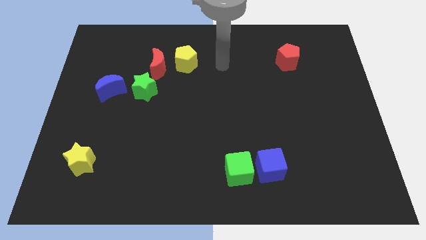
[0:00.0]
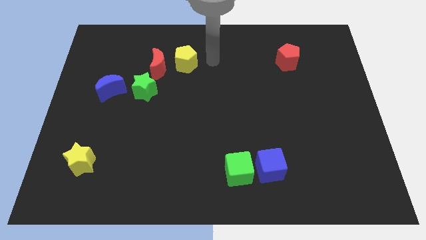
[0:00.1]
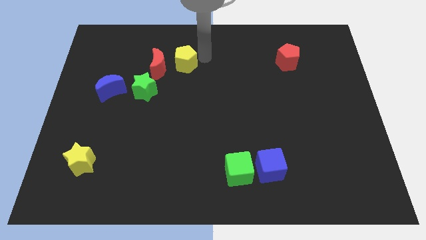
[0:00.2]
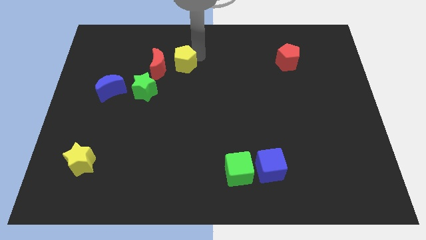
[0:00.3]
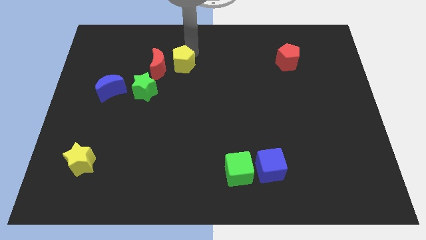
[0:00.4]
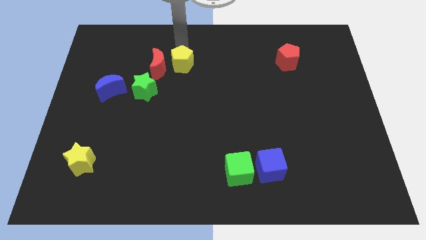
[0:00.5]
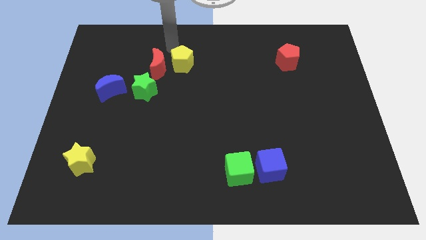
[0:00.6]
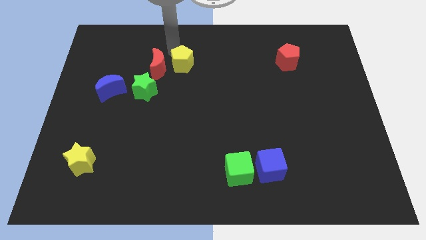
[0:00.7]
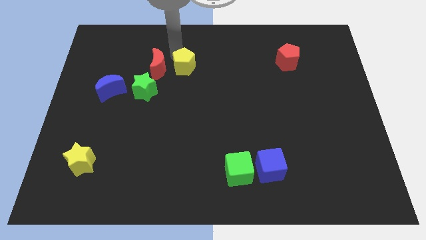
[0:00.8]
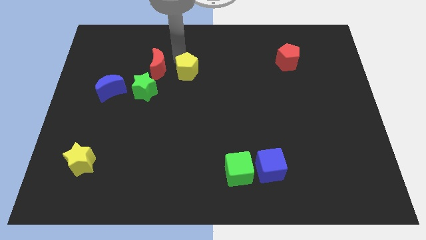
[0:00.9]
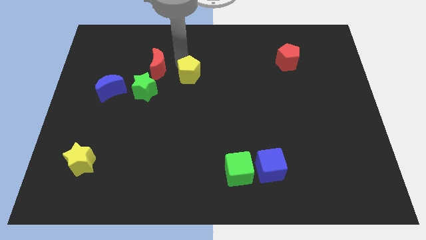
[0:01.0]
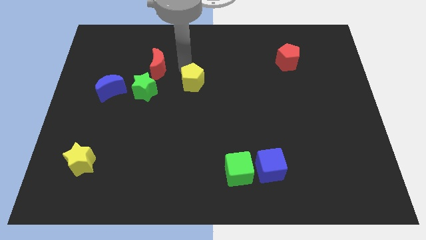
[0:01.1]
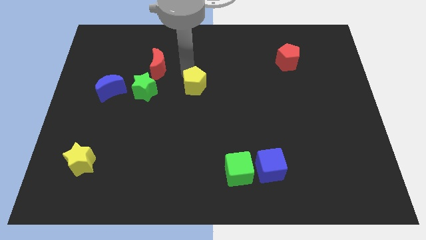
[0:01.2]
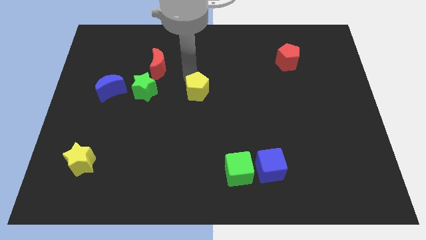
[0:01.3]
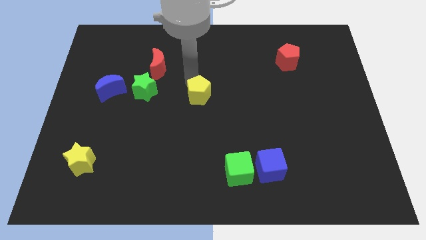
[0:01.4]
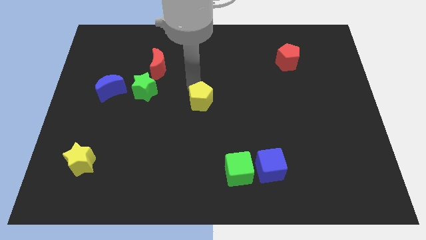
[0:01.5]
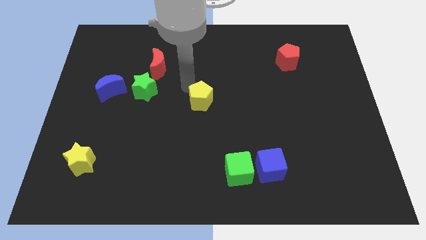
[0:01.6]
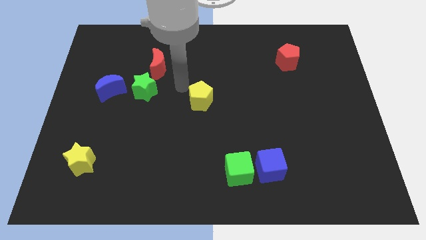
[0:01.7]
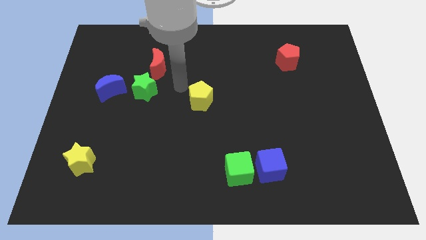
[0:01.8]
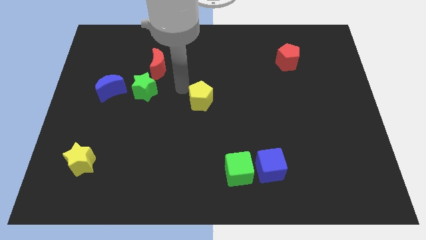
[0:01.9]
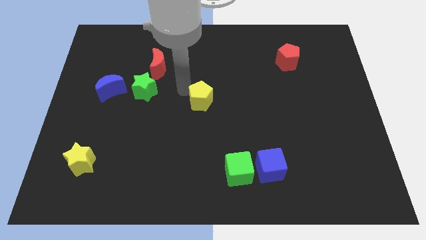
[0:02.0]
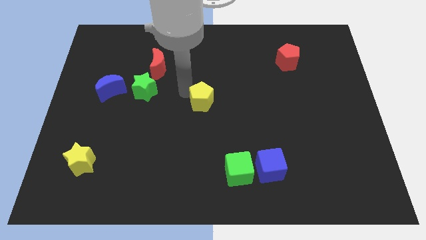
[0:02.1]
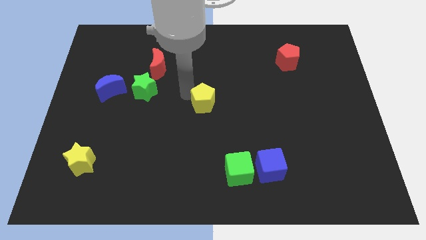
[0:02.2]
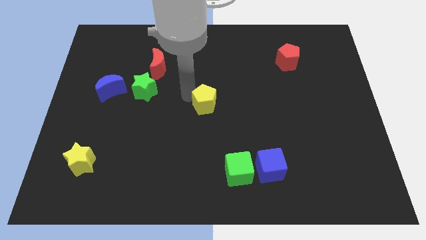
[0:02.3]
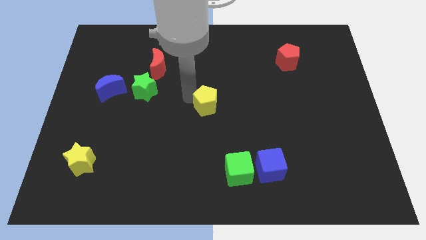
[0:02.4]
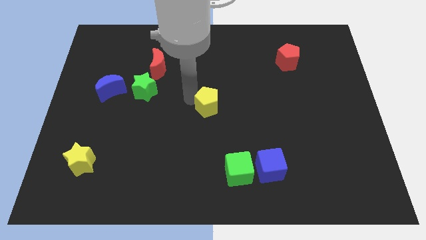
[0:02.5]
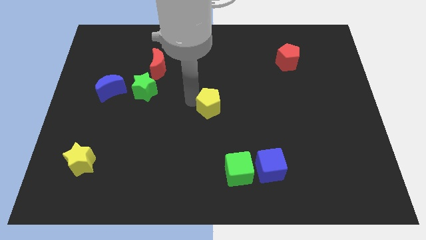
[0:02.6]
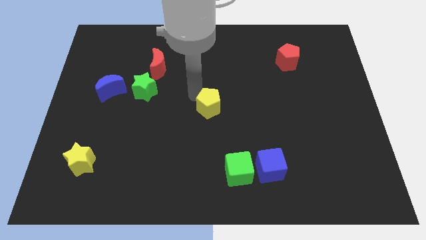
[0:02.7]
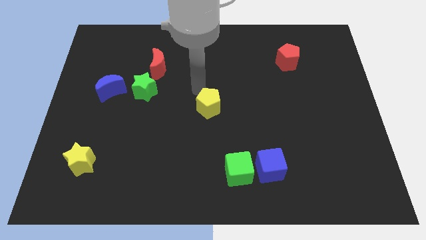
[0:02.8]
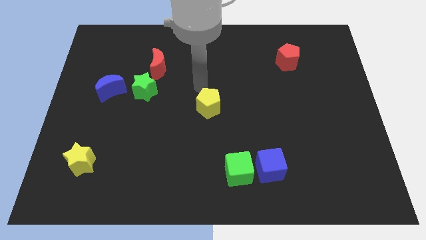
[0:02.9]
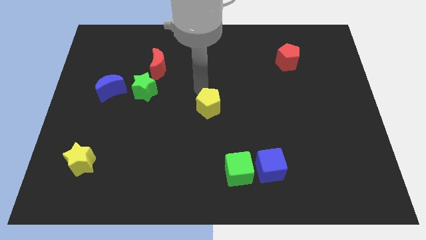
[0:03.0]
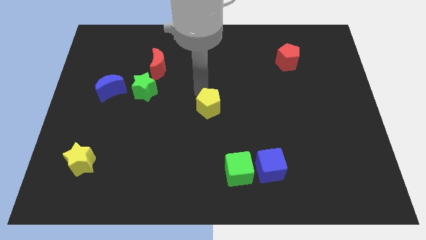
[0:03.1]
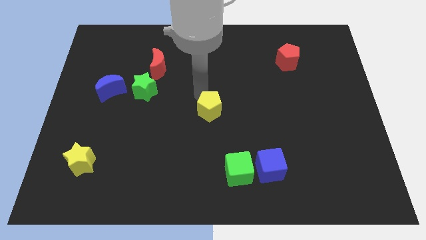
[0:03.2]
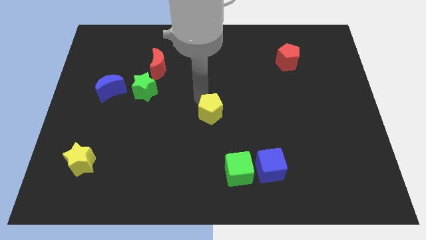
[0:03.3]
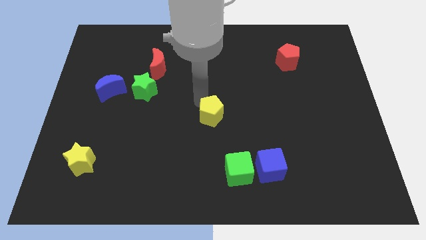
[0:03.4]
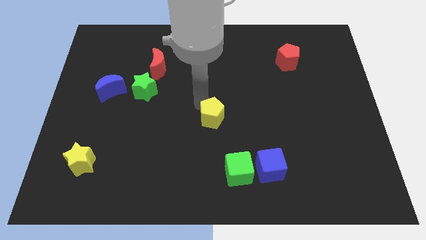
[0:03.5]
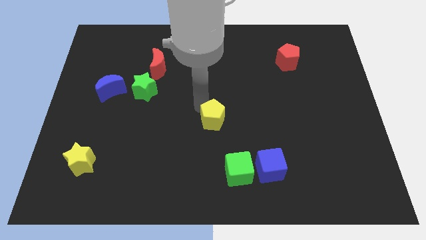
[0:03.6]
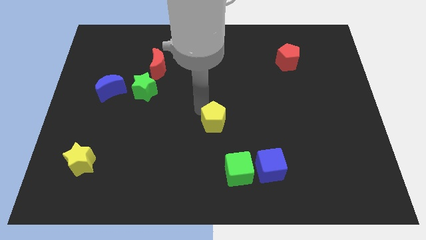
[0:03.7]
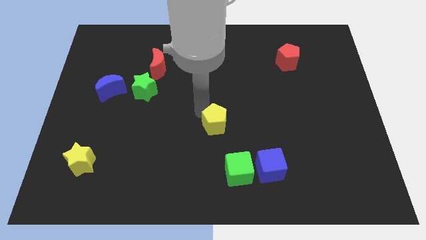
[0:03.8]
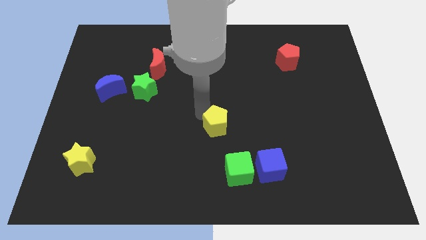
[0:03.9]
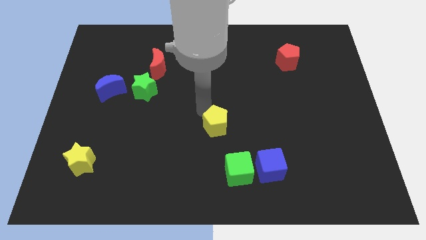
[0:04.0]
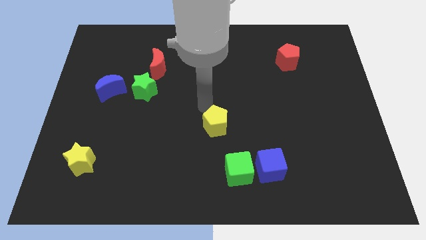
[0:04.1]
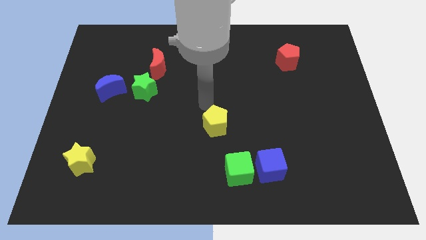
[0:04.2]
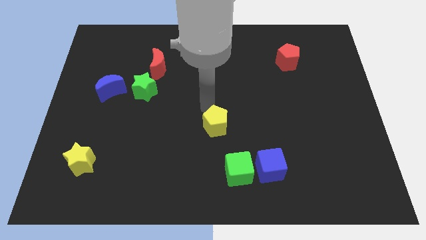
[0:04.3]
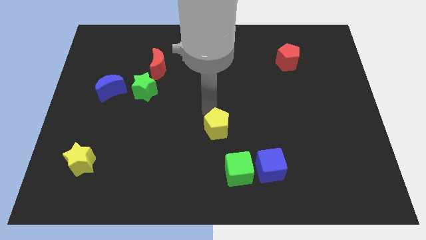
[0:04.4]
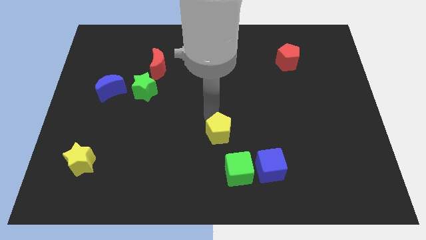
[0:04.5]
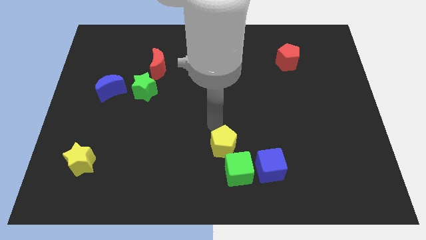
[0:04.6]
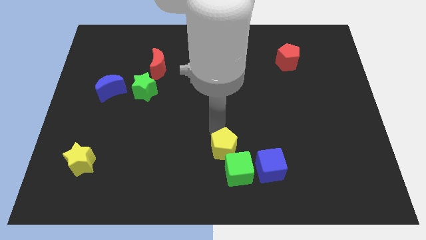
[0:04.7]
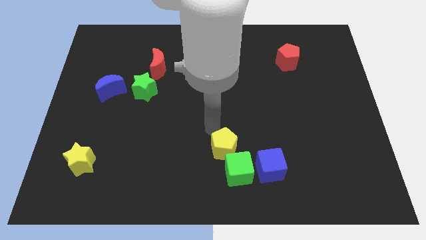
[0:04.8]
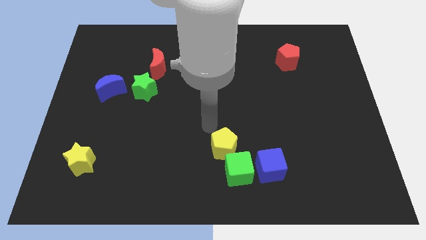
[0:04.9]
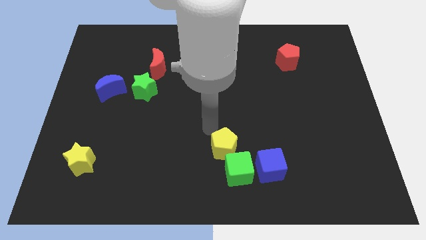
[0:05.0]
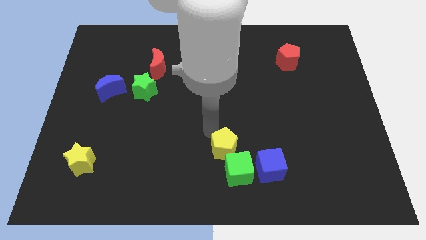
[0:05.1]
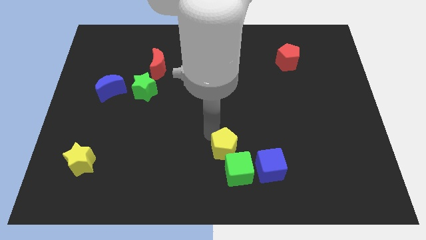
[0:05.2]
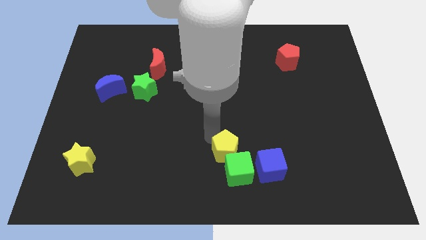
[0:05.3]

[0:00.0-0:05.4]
slide the yellow pentagon close to the green cube

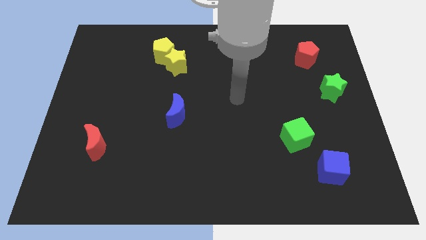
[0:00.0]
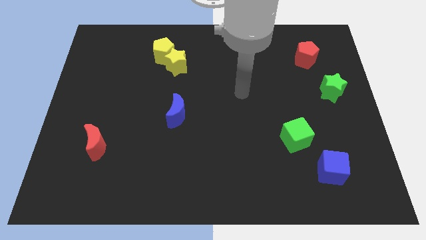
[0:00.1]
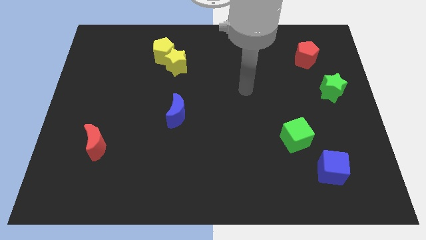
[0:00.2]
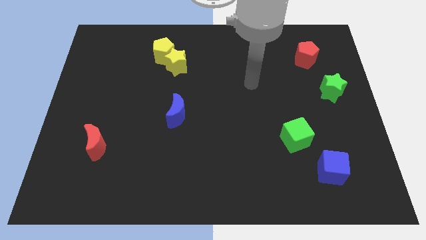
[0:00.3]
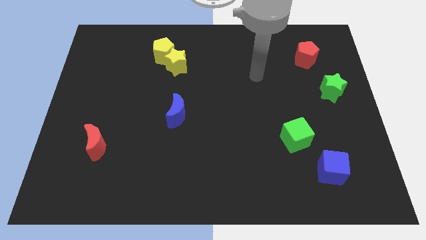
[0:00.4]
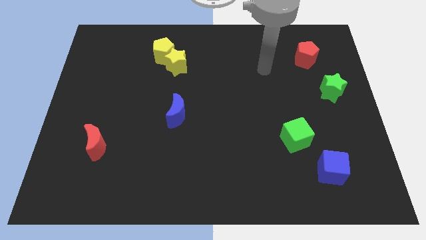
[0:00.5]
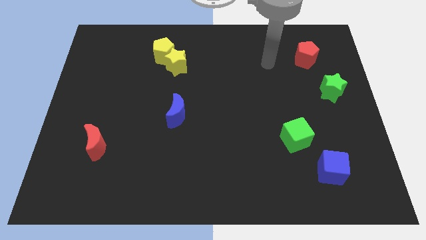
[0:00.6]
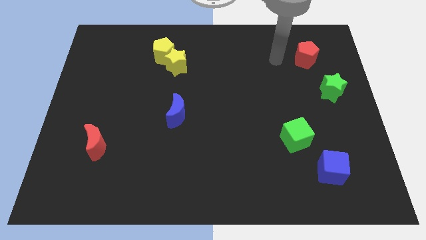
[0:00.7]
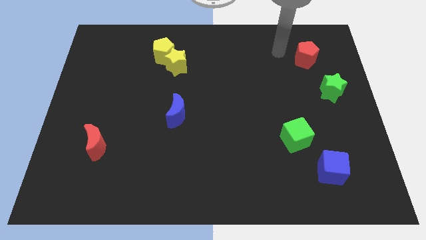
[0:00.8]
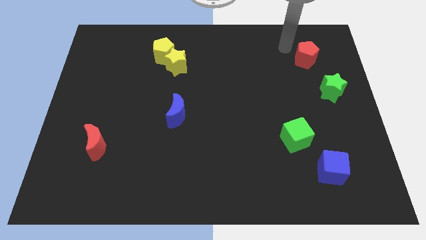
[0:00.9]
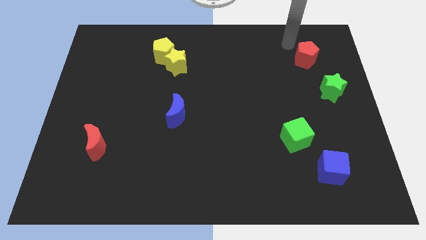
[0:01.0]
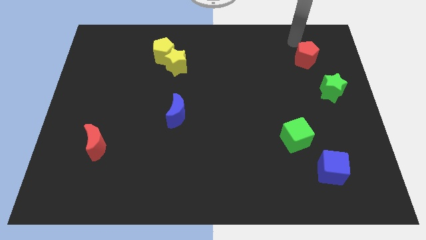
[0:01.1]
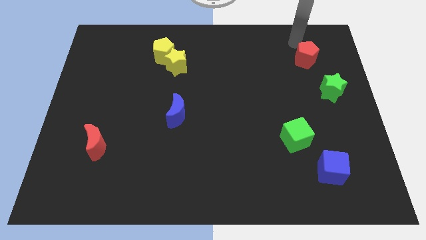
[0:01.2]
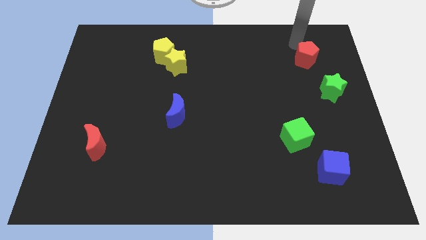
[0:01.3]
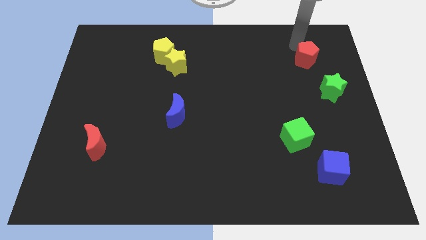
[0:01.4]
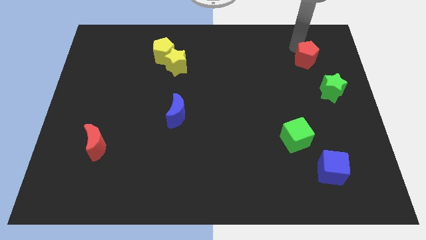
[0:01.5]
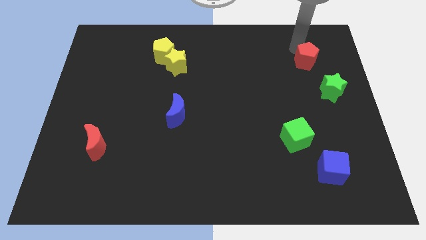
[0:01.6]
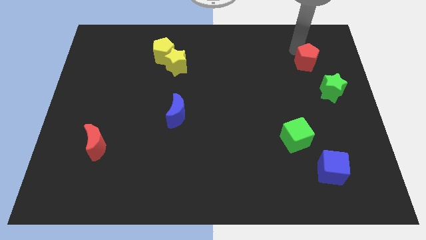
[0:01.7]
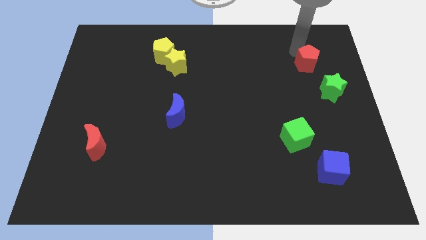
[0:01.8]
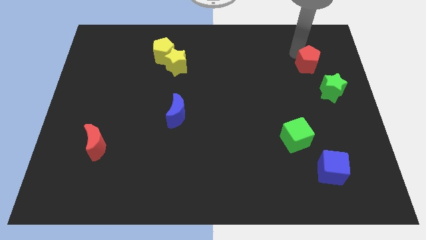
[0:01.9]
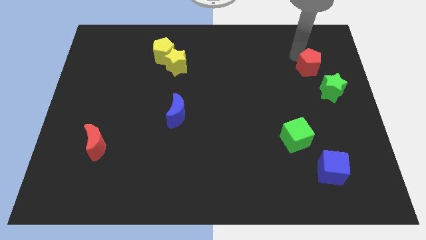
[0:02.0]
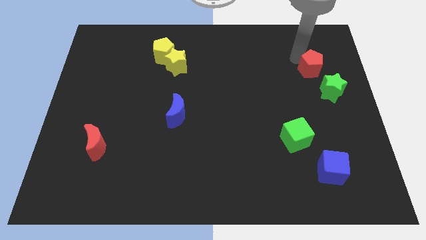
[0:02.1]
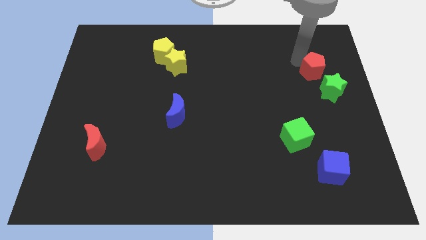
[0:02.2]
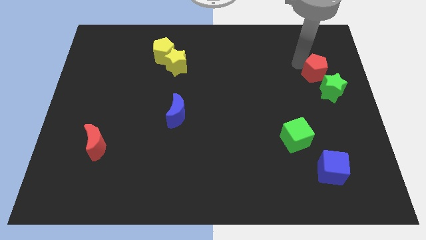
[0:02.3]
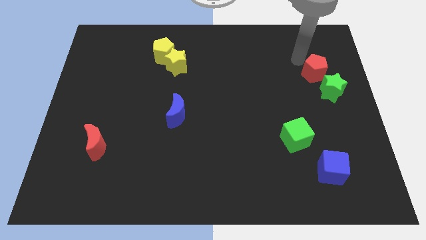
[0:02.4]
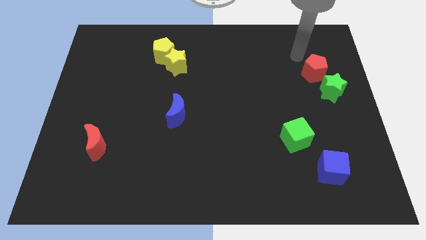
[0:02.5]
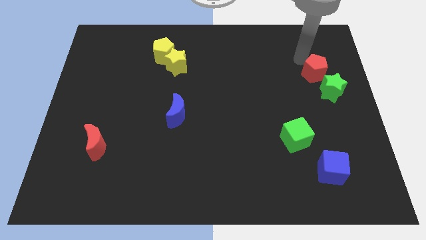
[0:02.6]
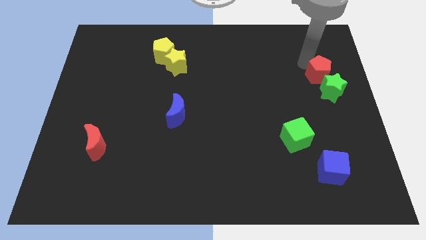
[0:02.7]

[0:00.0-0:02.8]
slide the red pentagon to the green star

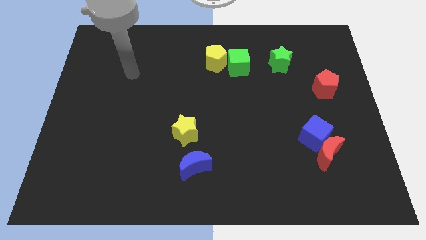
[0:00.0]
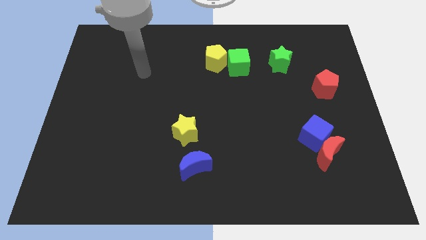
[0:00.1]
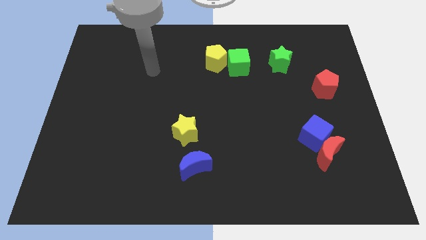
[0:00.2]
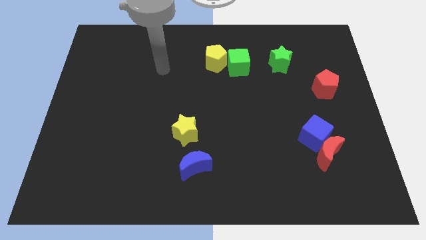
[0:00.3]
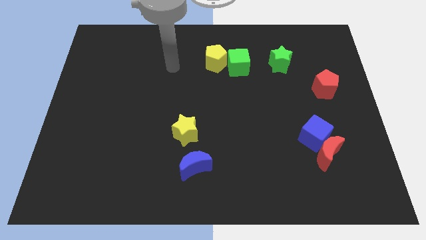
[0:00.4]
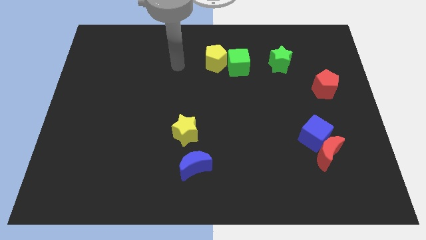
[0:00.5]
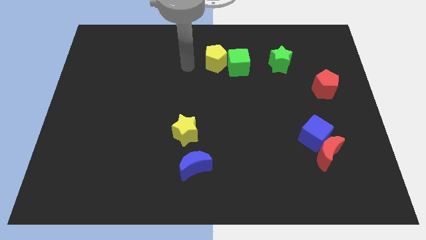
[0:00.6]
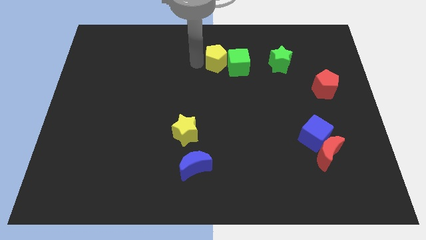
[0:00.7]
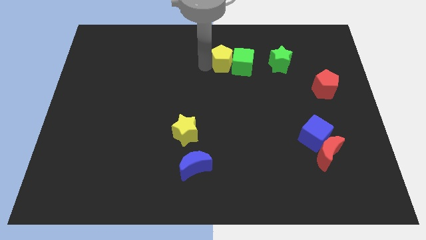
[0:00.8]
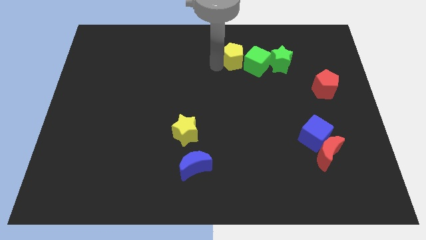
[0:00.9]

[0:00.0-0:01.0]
push the green cube close to the green star
